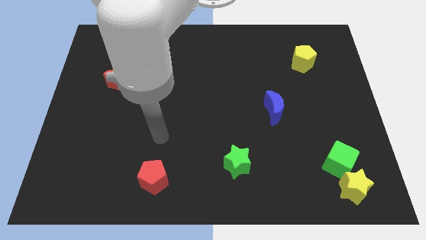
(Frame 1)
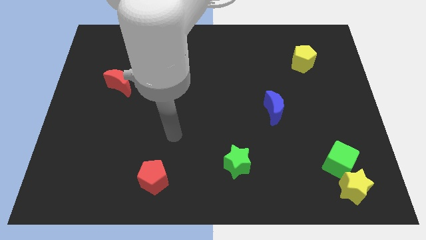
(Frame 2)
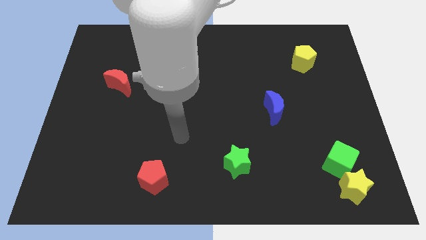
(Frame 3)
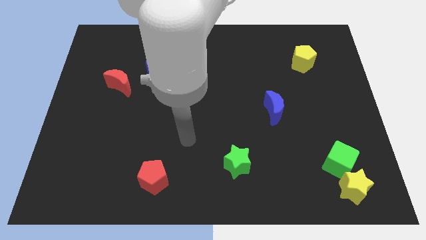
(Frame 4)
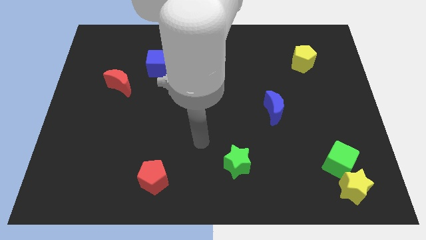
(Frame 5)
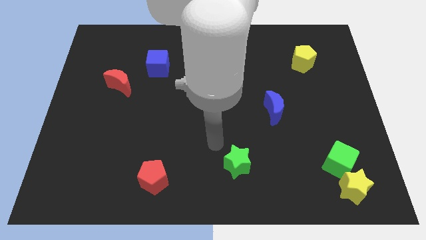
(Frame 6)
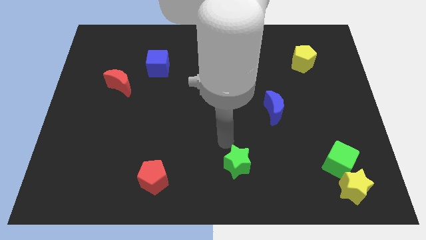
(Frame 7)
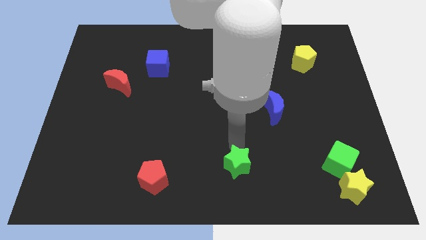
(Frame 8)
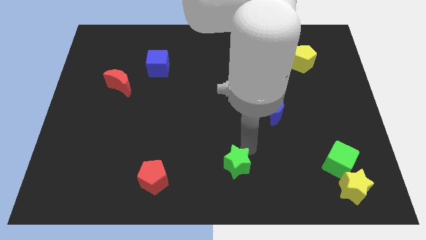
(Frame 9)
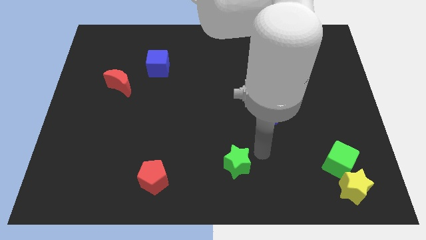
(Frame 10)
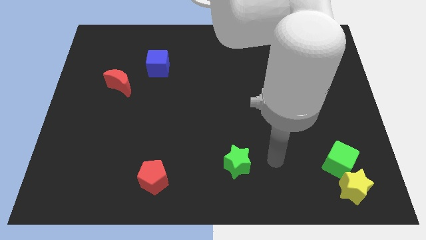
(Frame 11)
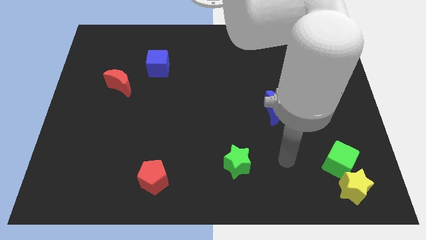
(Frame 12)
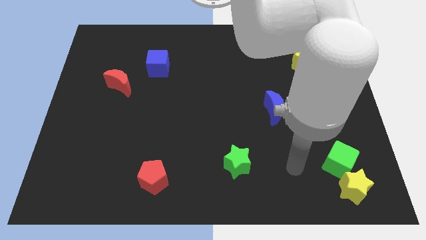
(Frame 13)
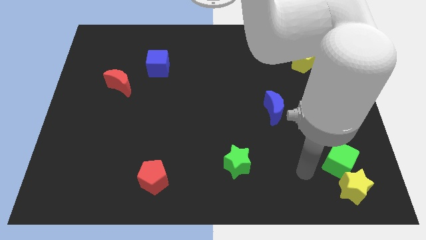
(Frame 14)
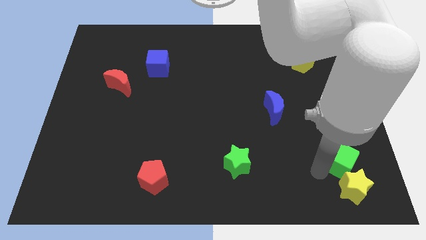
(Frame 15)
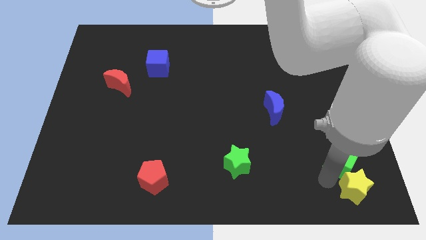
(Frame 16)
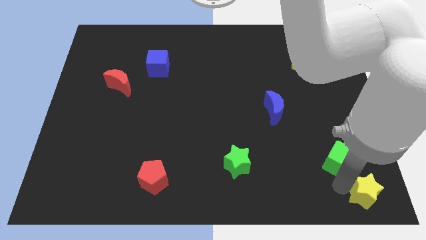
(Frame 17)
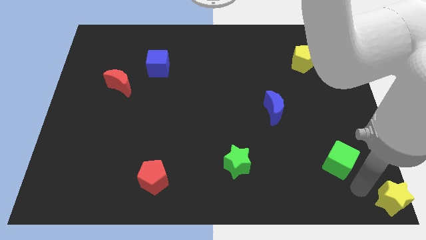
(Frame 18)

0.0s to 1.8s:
separate the green cube from the yellow star

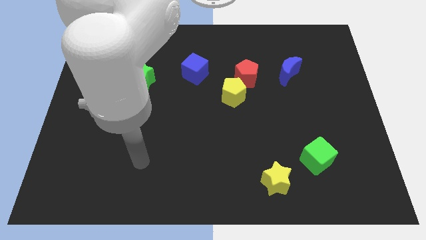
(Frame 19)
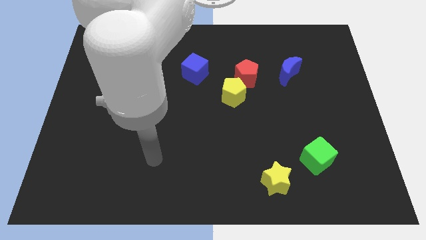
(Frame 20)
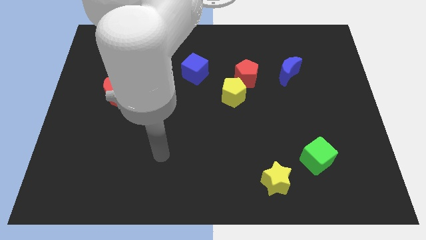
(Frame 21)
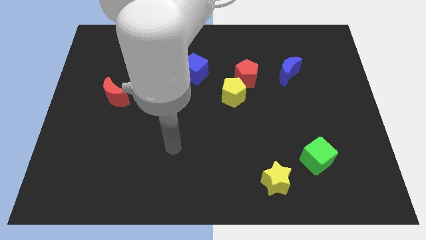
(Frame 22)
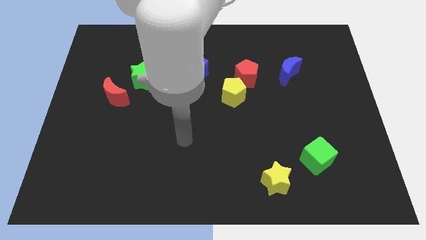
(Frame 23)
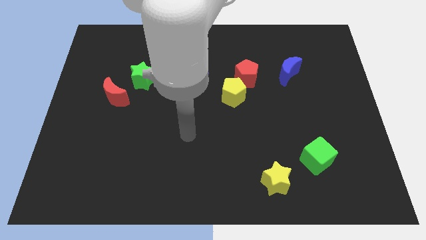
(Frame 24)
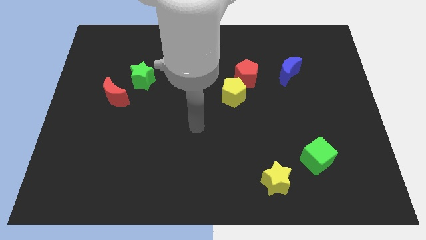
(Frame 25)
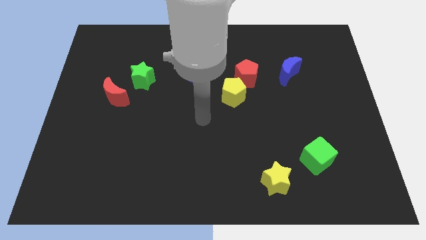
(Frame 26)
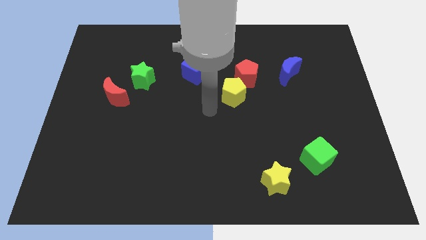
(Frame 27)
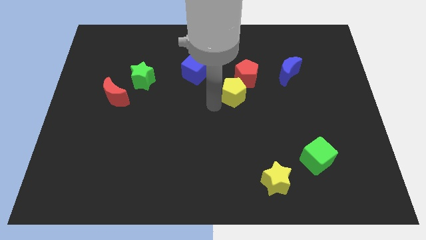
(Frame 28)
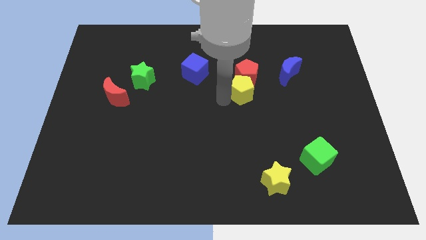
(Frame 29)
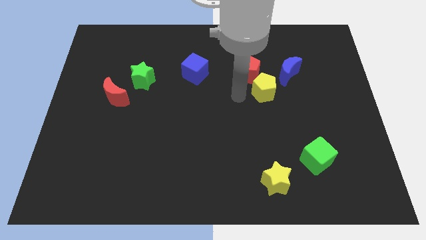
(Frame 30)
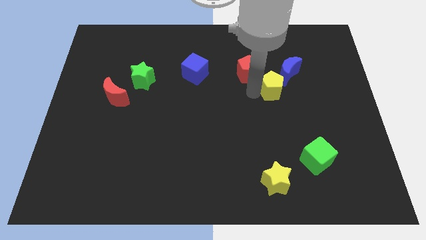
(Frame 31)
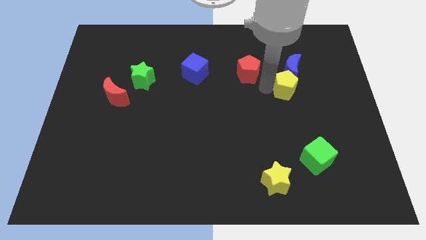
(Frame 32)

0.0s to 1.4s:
pull the red pentagon apart from the yellow pentagon

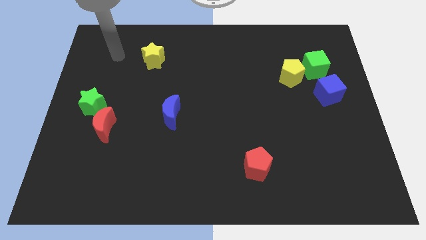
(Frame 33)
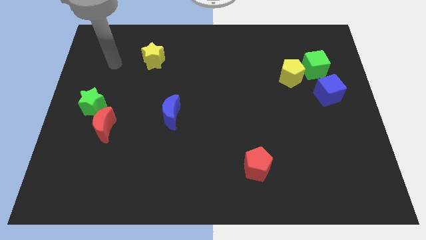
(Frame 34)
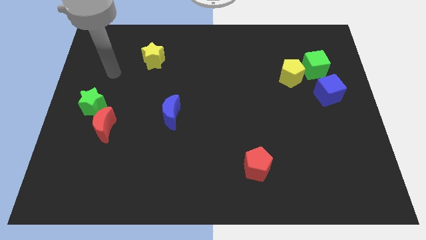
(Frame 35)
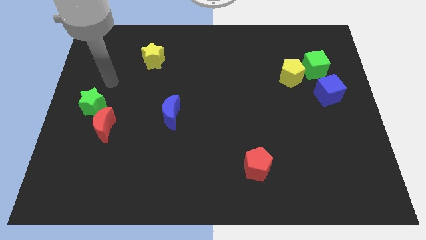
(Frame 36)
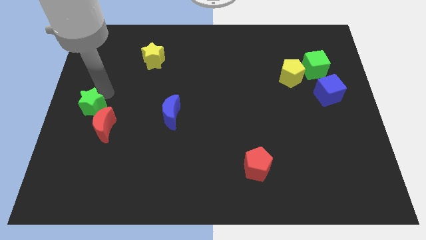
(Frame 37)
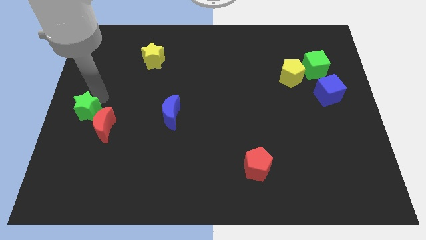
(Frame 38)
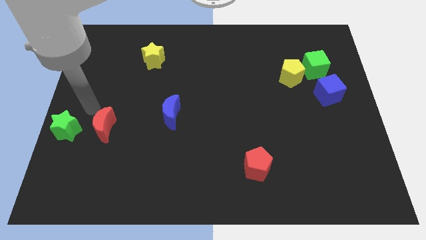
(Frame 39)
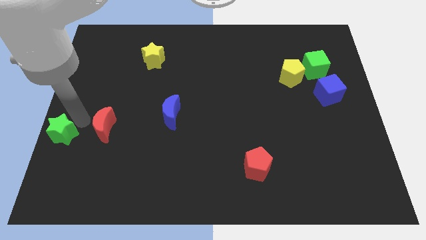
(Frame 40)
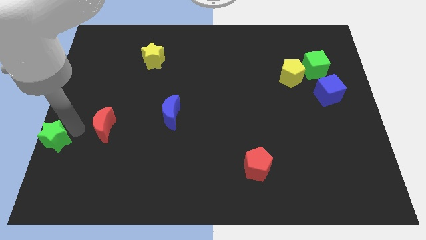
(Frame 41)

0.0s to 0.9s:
move the red moon away from the green star

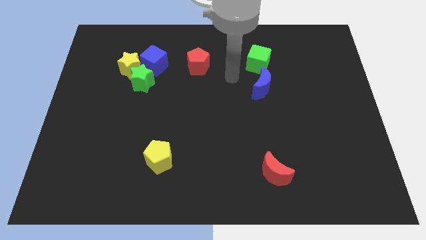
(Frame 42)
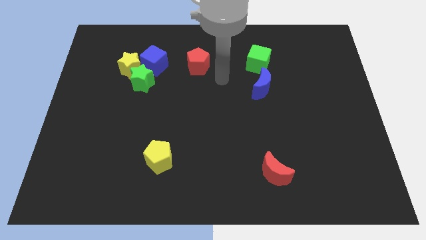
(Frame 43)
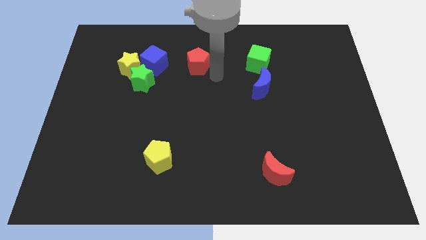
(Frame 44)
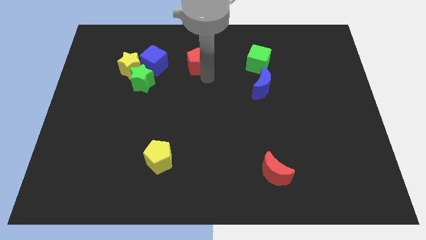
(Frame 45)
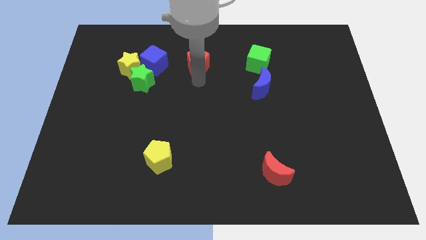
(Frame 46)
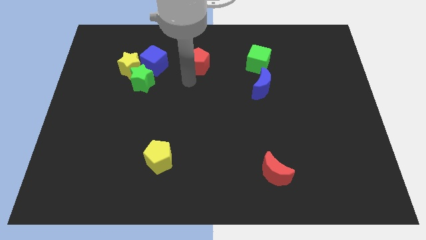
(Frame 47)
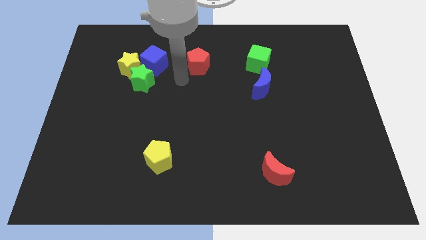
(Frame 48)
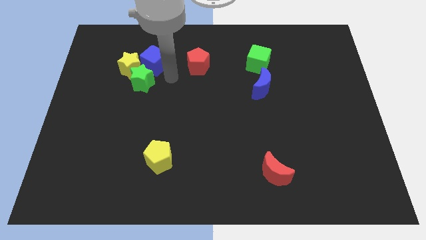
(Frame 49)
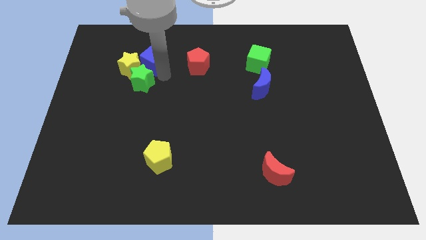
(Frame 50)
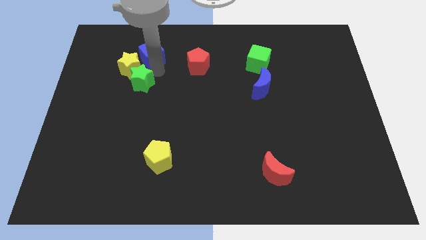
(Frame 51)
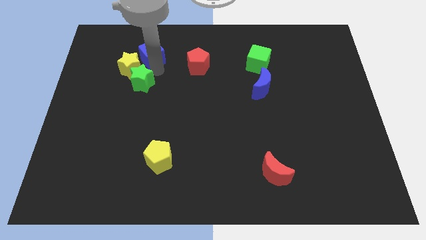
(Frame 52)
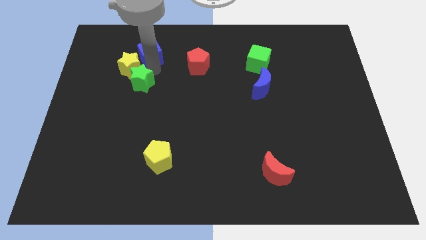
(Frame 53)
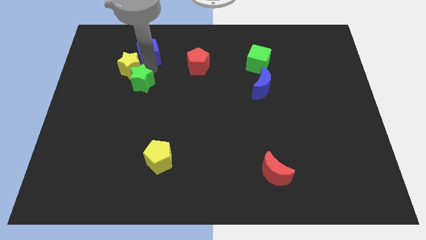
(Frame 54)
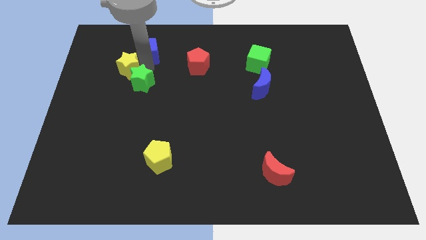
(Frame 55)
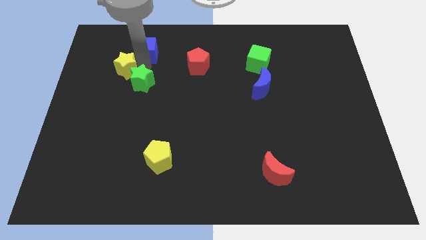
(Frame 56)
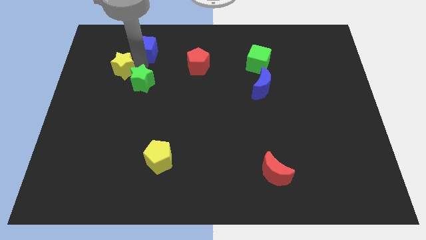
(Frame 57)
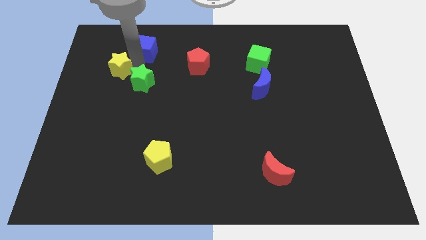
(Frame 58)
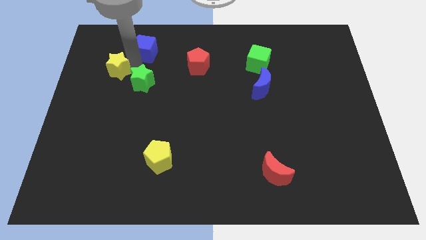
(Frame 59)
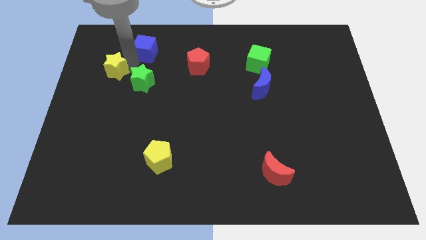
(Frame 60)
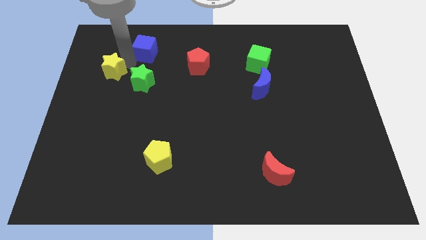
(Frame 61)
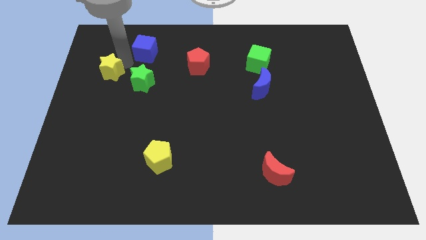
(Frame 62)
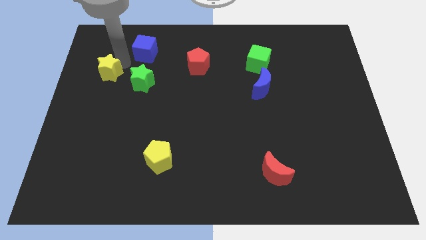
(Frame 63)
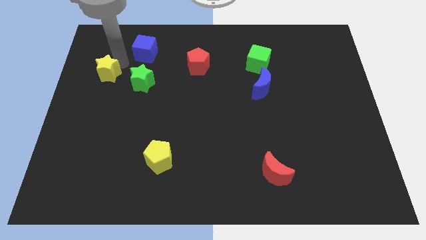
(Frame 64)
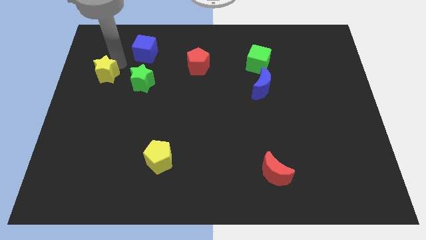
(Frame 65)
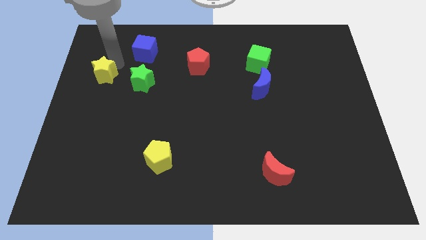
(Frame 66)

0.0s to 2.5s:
move the yellow star away from the green star and blue cube

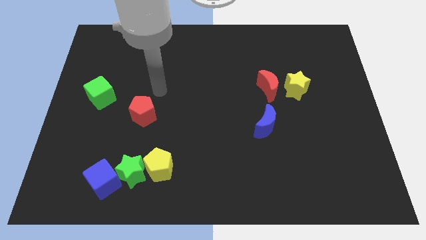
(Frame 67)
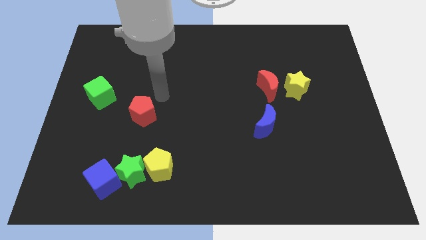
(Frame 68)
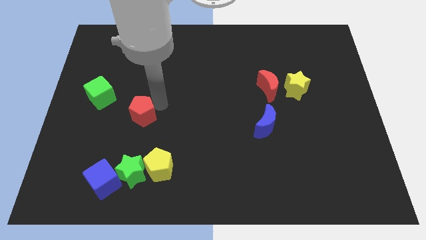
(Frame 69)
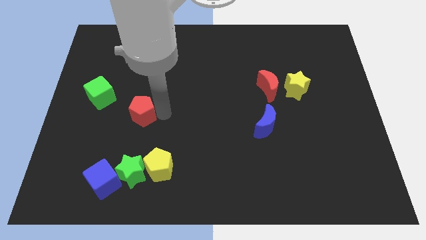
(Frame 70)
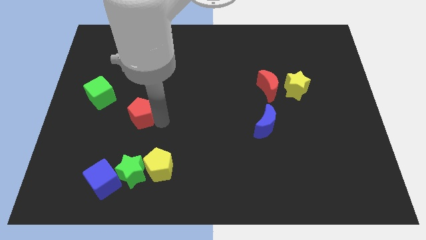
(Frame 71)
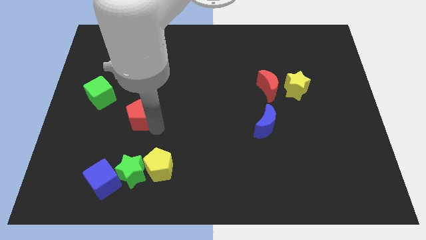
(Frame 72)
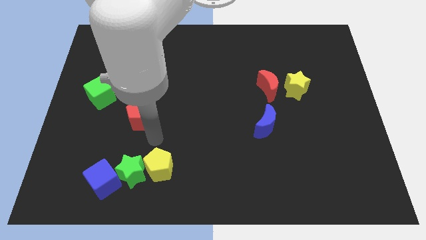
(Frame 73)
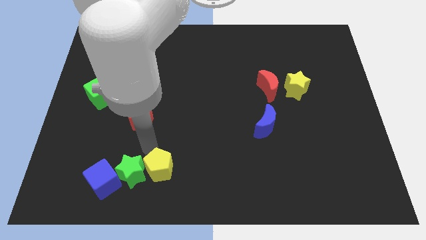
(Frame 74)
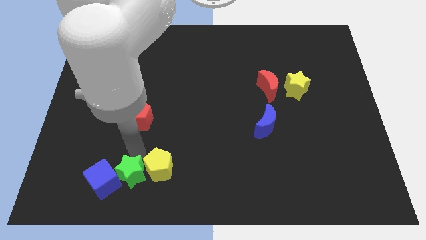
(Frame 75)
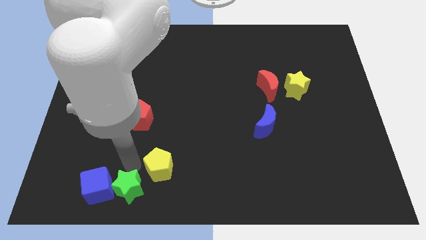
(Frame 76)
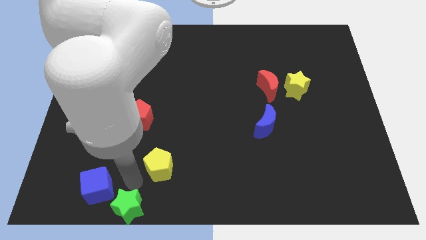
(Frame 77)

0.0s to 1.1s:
pull the yellow pentagon apart from the green star

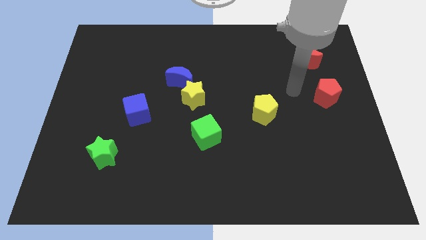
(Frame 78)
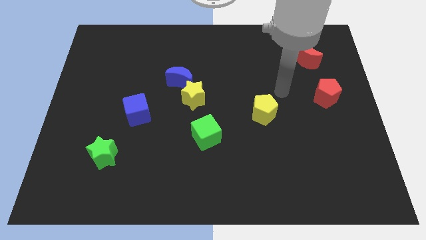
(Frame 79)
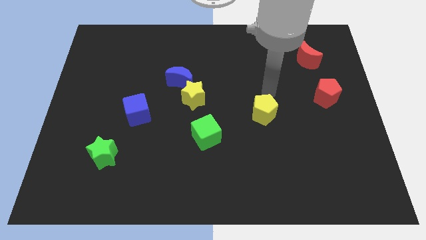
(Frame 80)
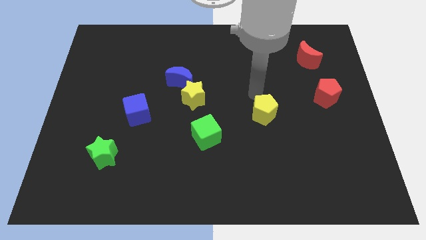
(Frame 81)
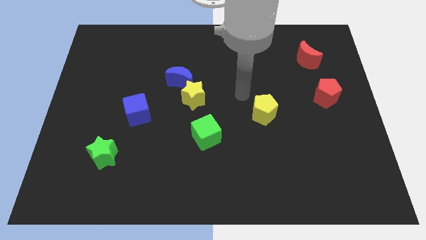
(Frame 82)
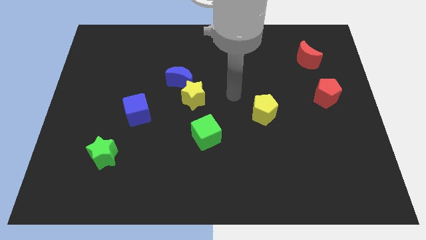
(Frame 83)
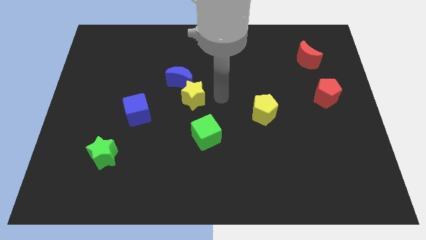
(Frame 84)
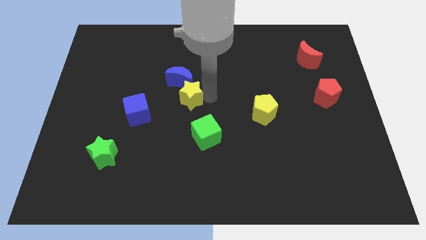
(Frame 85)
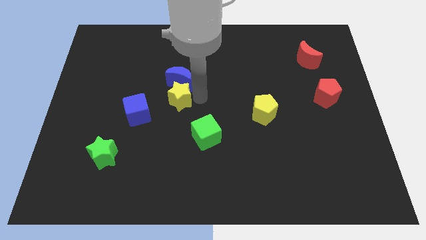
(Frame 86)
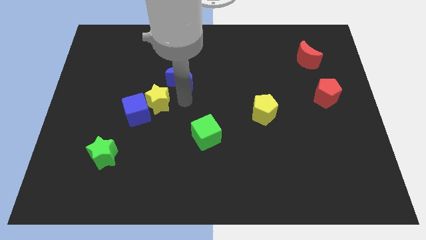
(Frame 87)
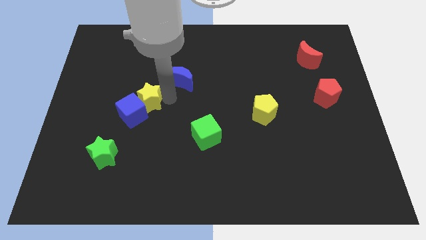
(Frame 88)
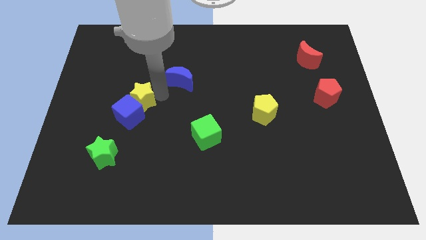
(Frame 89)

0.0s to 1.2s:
pull the blue moon apart from the yellow star

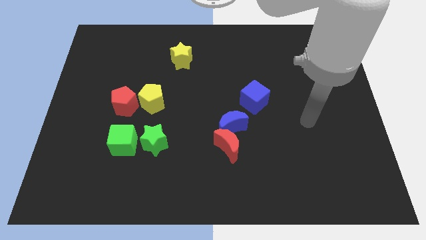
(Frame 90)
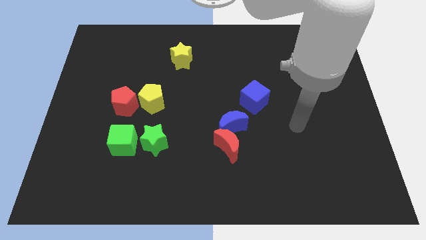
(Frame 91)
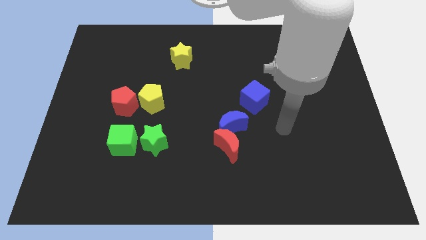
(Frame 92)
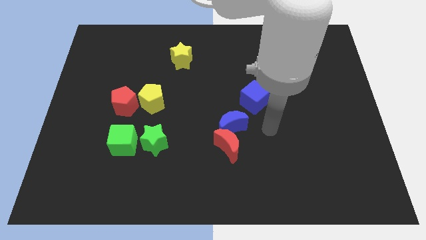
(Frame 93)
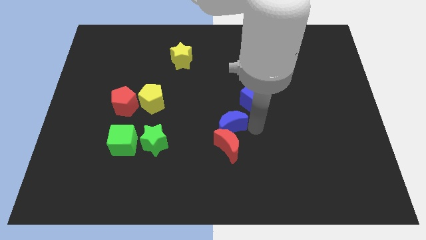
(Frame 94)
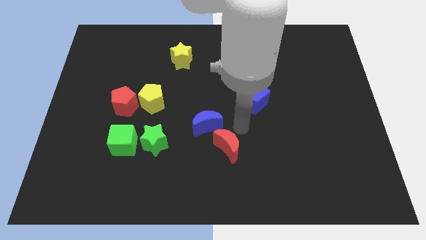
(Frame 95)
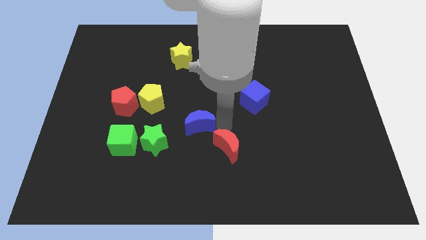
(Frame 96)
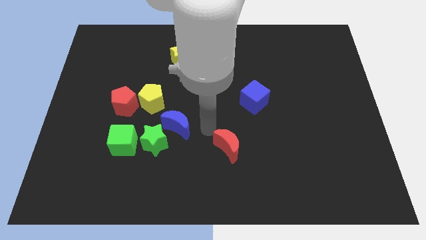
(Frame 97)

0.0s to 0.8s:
pull the red moon apart from the blue moon
